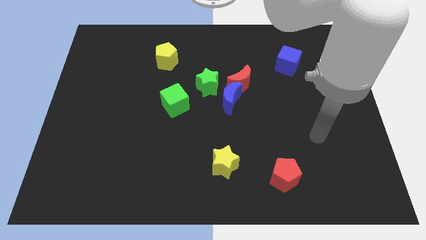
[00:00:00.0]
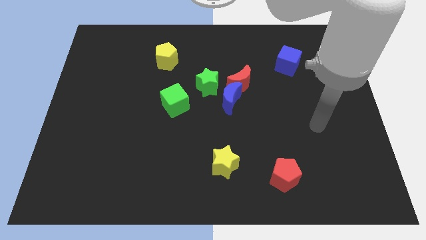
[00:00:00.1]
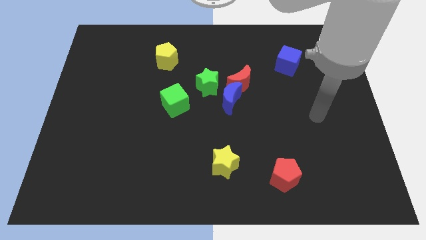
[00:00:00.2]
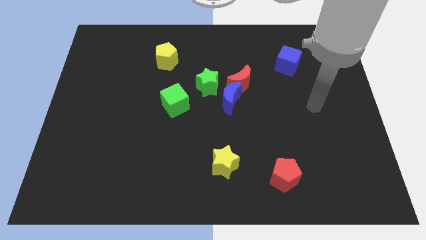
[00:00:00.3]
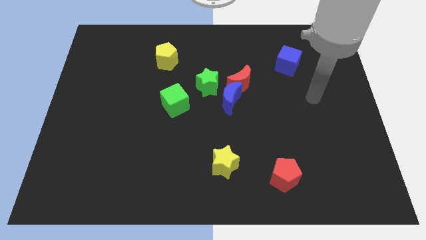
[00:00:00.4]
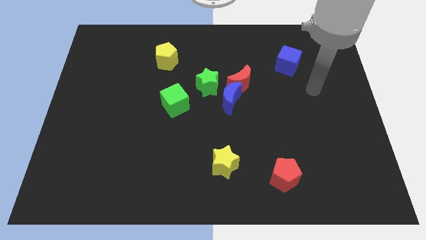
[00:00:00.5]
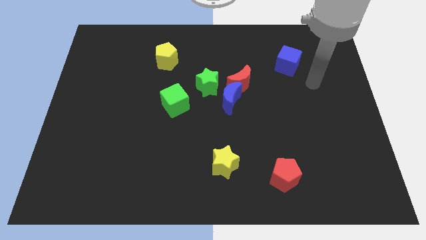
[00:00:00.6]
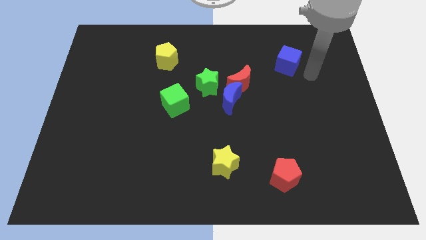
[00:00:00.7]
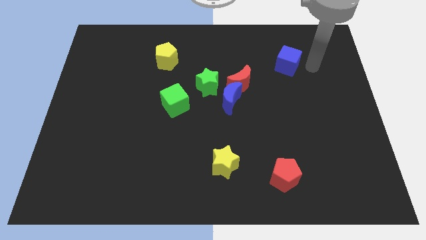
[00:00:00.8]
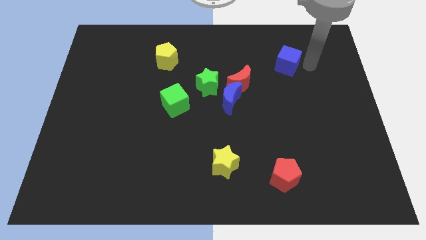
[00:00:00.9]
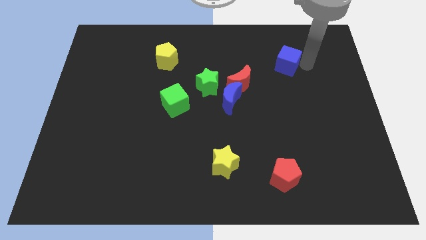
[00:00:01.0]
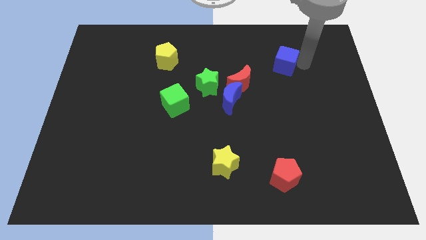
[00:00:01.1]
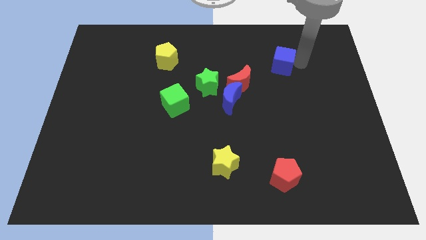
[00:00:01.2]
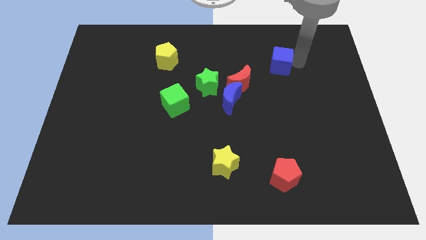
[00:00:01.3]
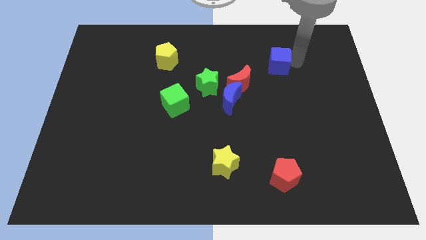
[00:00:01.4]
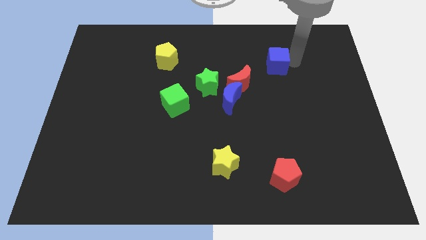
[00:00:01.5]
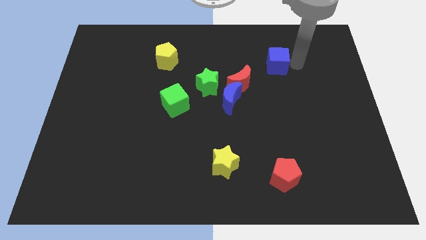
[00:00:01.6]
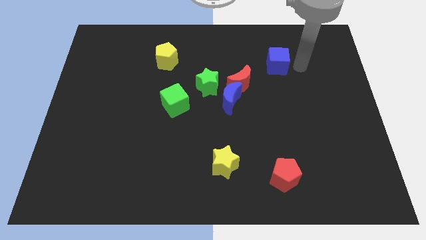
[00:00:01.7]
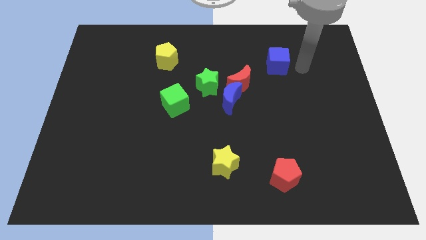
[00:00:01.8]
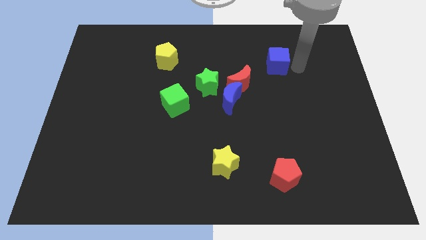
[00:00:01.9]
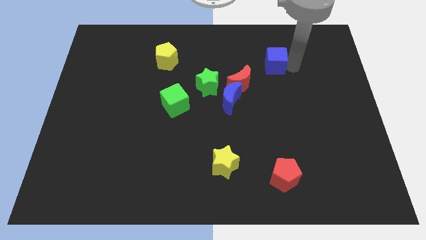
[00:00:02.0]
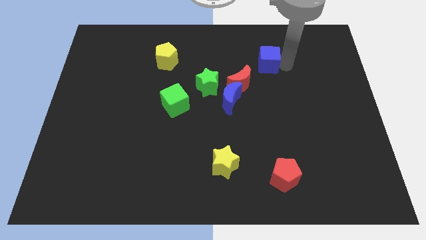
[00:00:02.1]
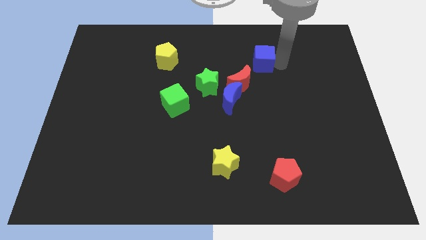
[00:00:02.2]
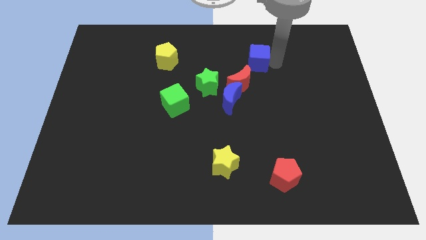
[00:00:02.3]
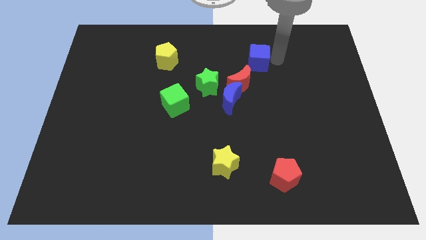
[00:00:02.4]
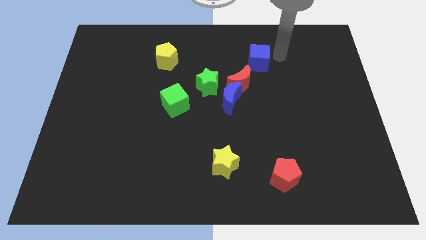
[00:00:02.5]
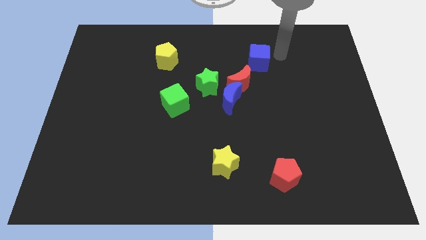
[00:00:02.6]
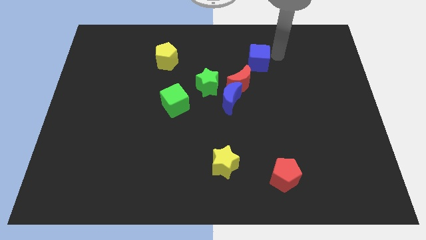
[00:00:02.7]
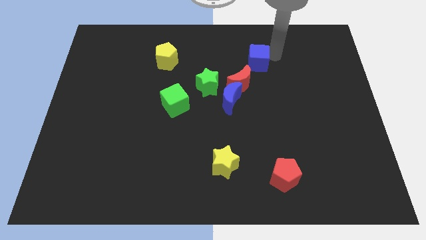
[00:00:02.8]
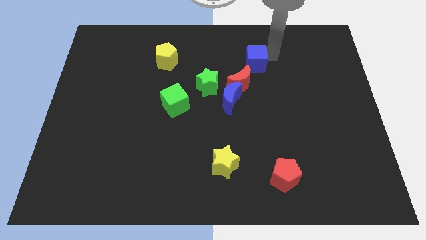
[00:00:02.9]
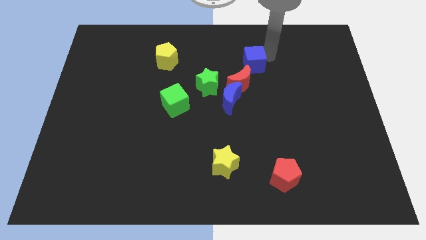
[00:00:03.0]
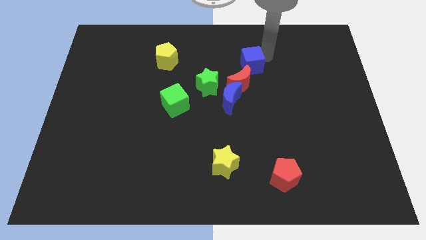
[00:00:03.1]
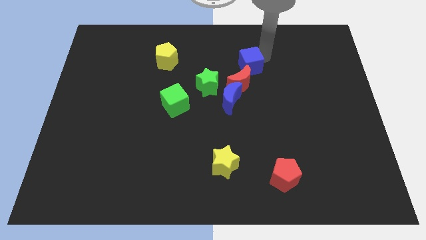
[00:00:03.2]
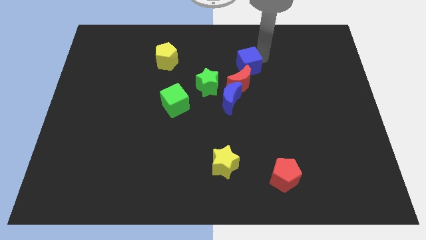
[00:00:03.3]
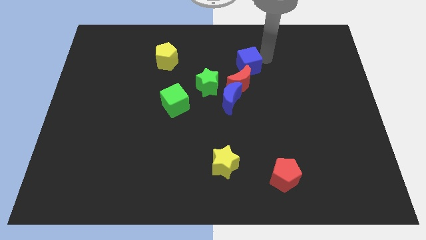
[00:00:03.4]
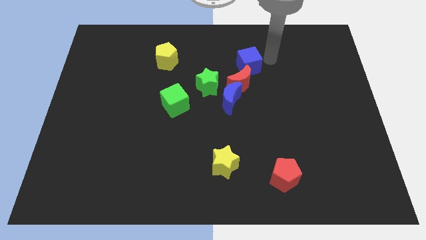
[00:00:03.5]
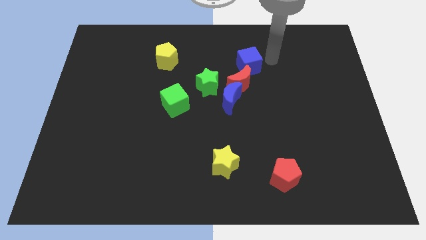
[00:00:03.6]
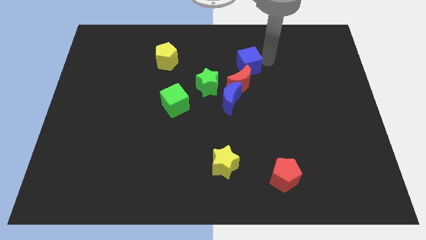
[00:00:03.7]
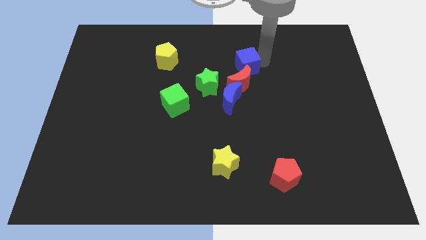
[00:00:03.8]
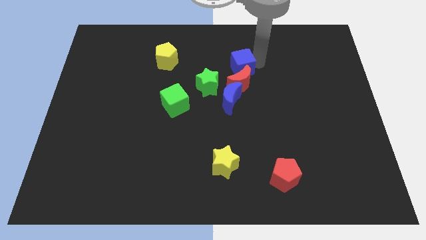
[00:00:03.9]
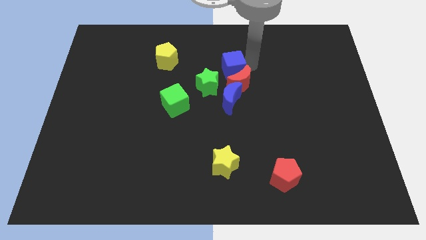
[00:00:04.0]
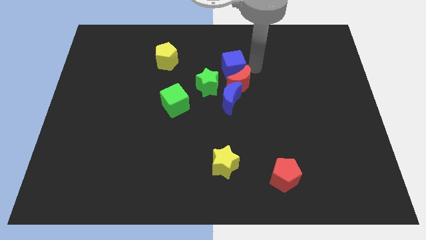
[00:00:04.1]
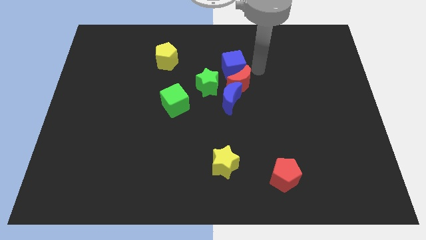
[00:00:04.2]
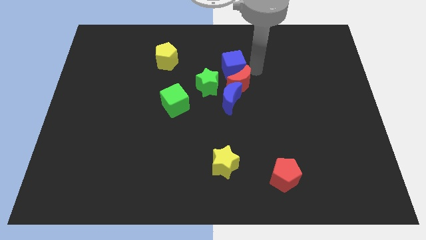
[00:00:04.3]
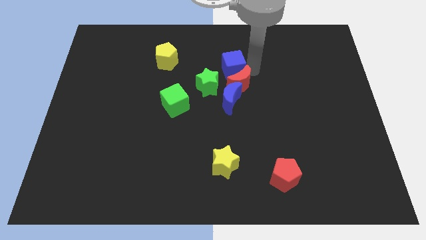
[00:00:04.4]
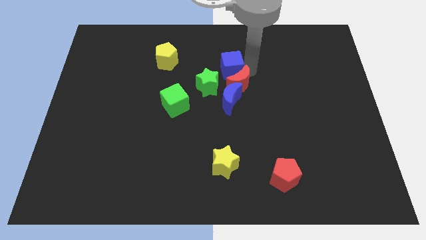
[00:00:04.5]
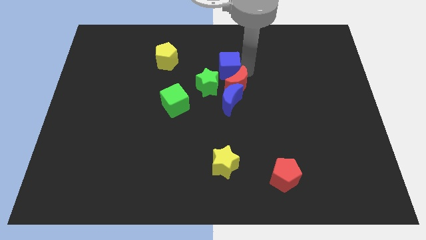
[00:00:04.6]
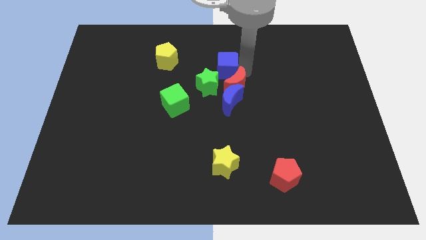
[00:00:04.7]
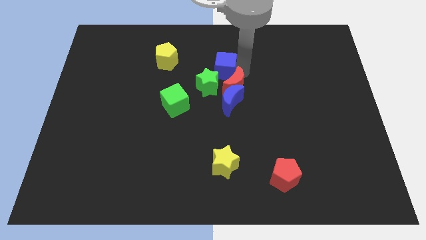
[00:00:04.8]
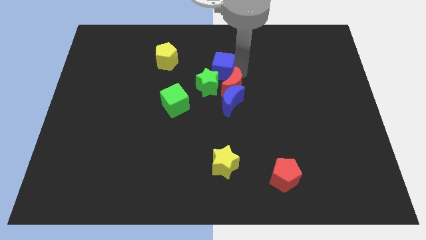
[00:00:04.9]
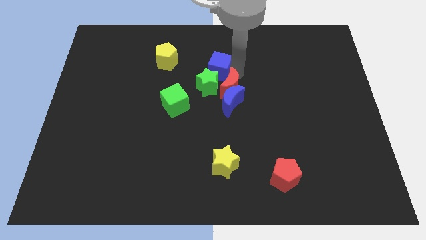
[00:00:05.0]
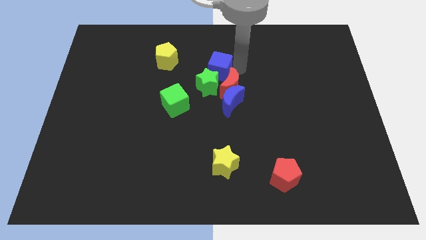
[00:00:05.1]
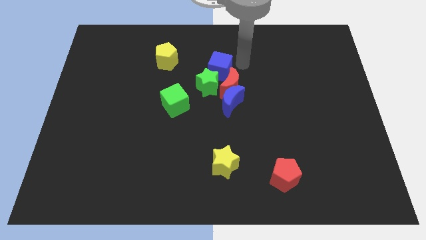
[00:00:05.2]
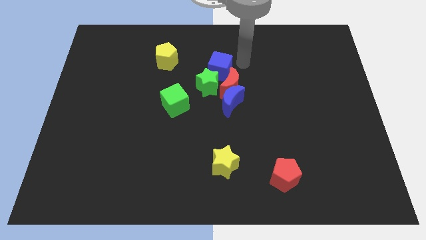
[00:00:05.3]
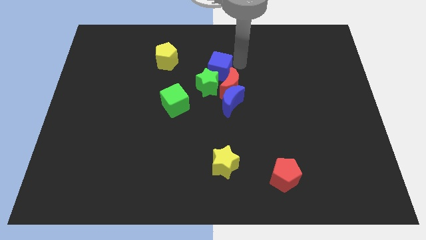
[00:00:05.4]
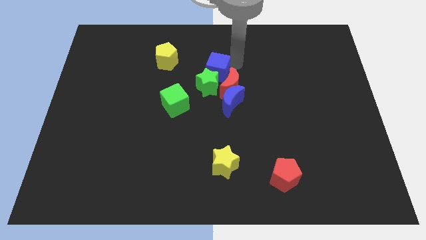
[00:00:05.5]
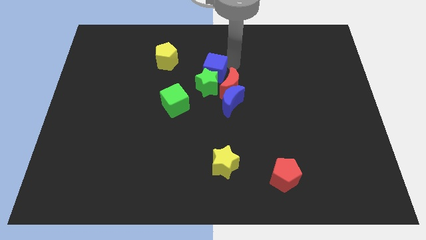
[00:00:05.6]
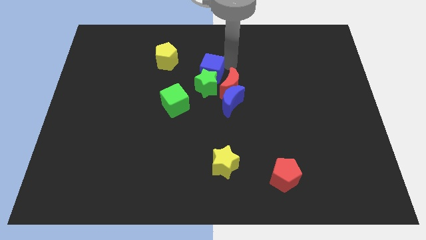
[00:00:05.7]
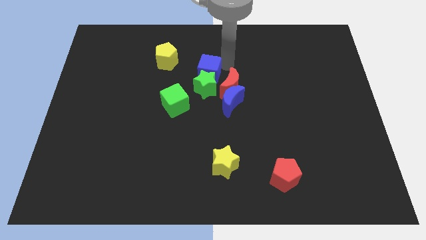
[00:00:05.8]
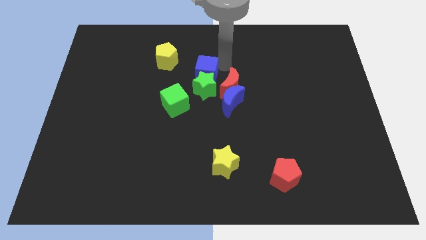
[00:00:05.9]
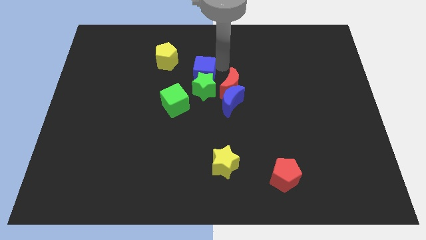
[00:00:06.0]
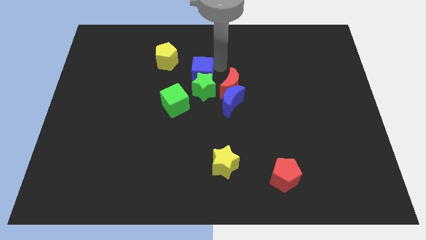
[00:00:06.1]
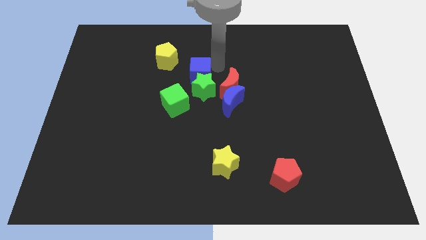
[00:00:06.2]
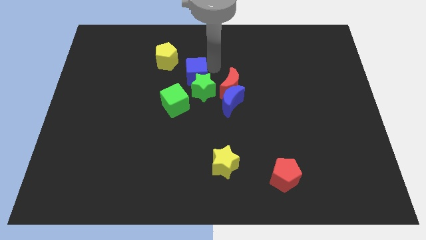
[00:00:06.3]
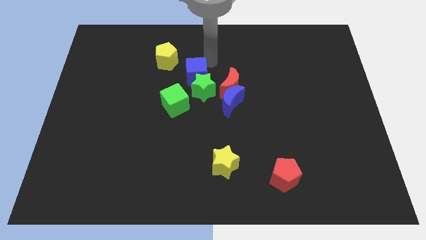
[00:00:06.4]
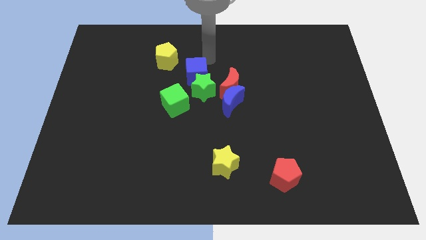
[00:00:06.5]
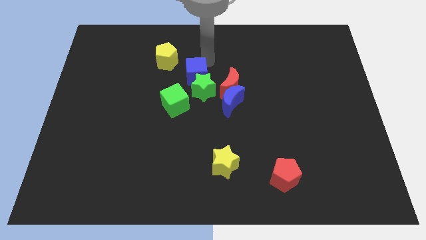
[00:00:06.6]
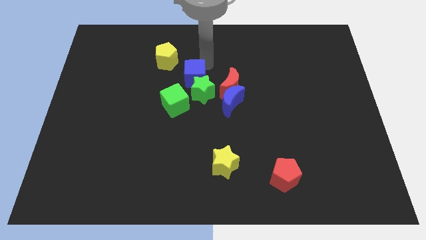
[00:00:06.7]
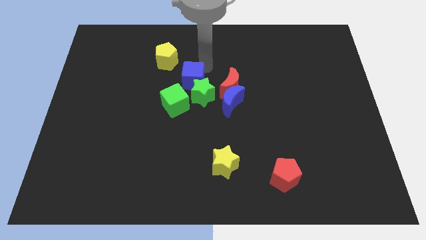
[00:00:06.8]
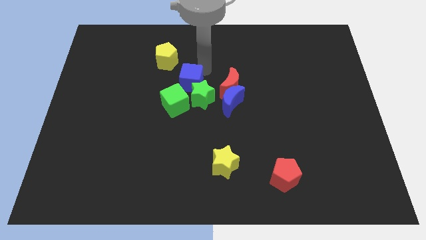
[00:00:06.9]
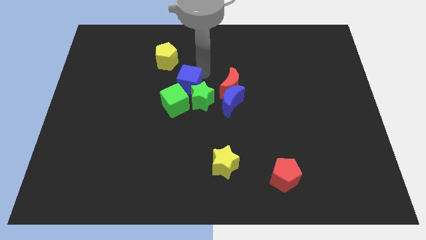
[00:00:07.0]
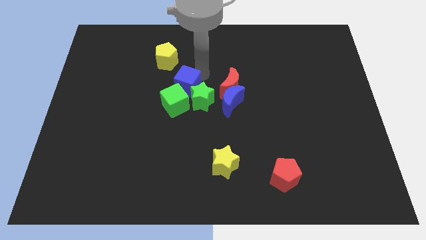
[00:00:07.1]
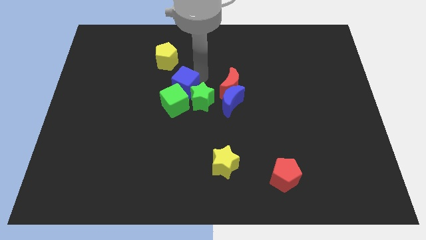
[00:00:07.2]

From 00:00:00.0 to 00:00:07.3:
put the blue cube towards the green cube

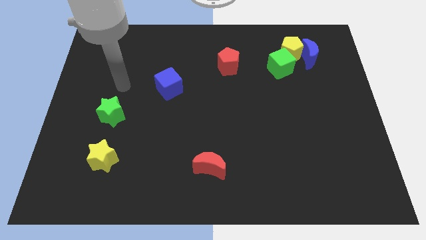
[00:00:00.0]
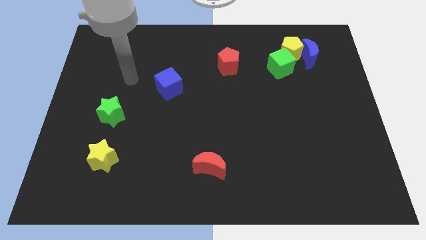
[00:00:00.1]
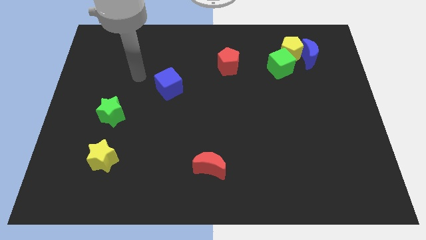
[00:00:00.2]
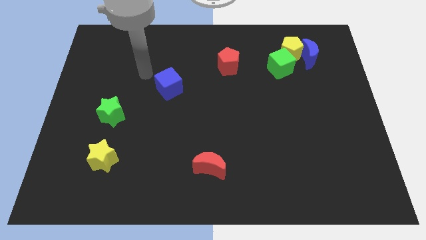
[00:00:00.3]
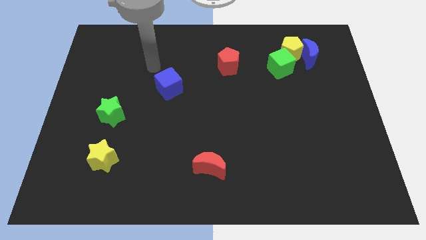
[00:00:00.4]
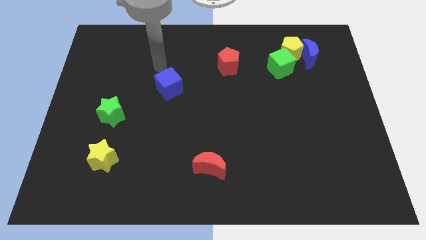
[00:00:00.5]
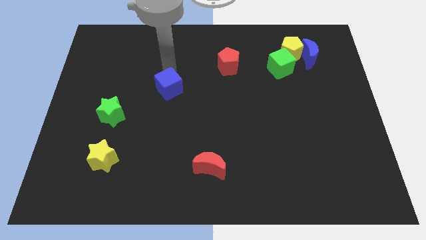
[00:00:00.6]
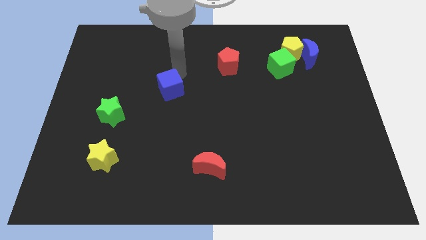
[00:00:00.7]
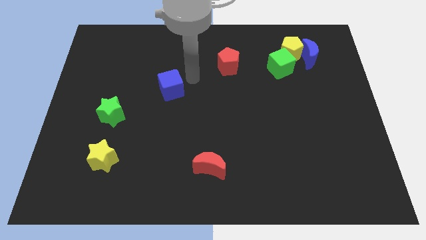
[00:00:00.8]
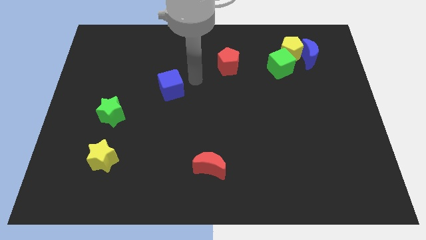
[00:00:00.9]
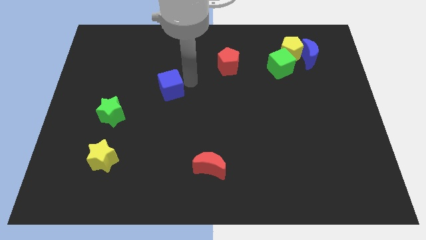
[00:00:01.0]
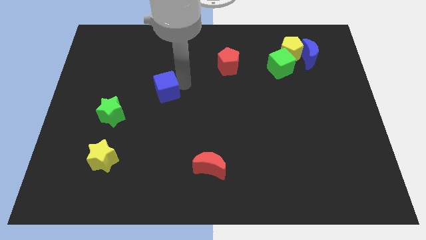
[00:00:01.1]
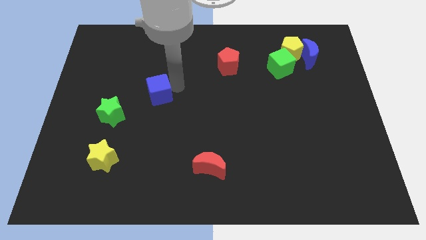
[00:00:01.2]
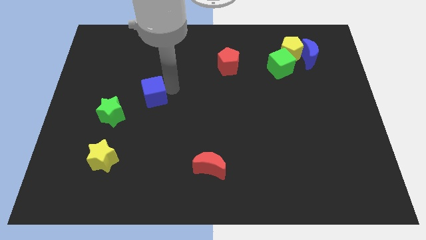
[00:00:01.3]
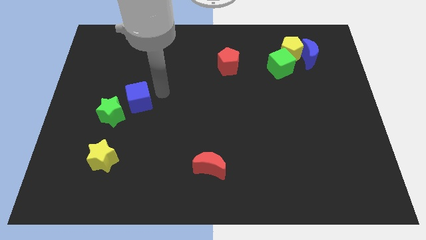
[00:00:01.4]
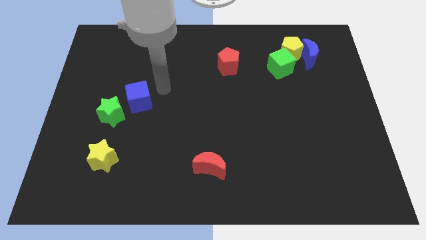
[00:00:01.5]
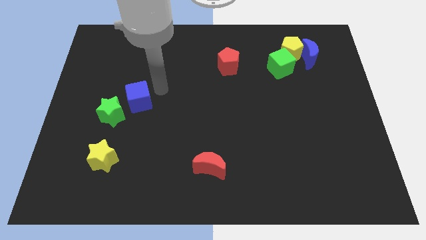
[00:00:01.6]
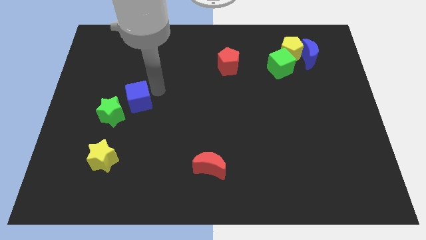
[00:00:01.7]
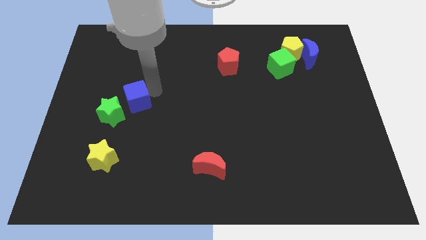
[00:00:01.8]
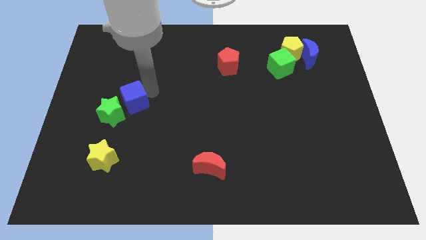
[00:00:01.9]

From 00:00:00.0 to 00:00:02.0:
slide the blue cube towards the green star
